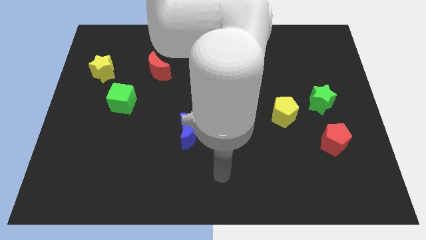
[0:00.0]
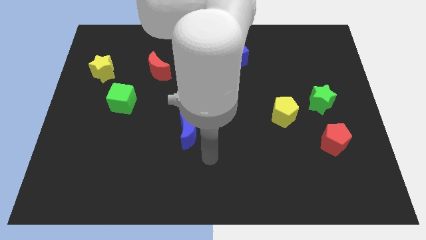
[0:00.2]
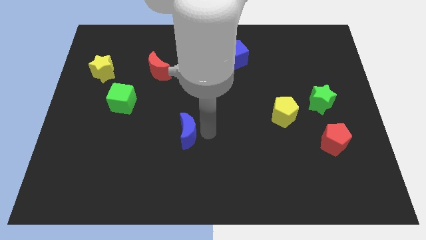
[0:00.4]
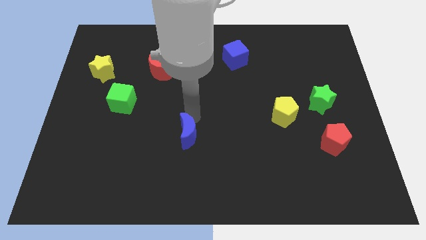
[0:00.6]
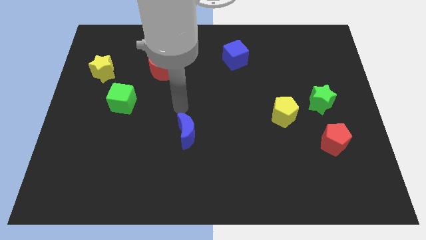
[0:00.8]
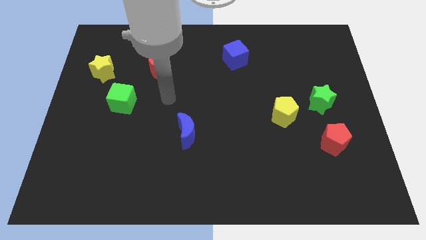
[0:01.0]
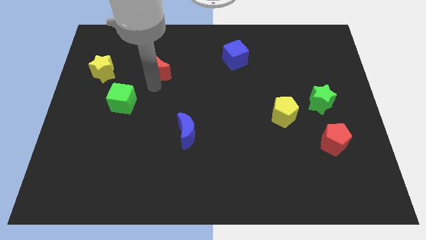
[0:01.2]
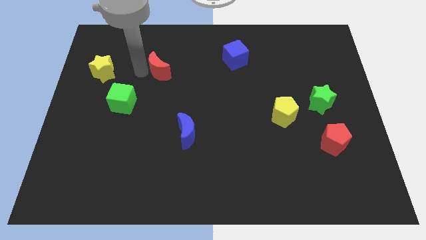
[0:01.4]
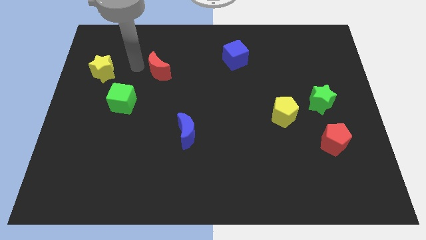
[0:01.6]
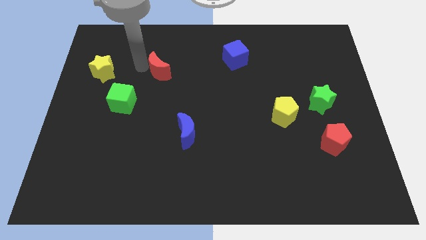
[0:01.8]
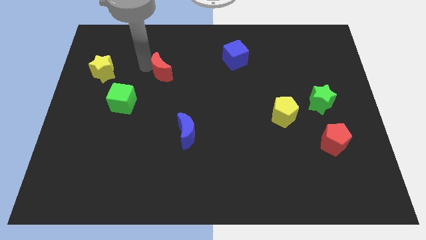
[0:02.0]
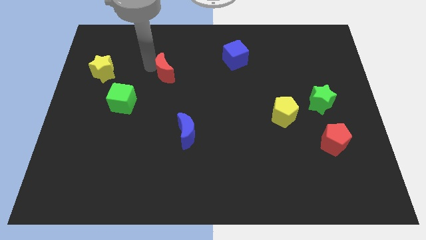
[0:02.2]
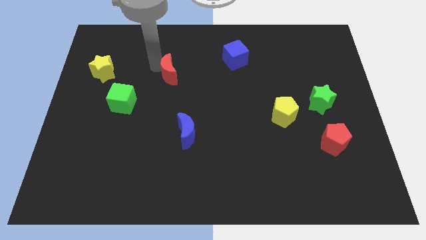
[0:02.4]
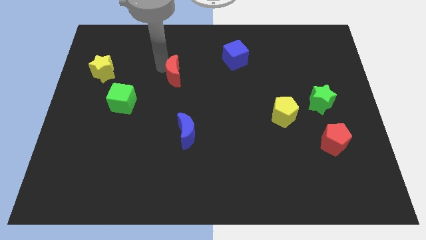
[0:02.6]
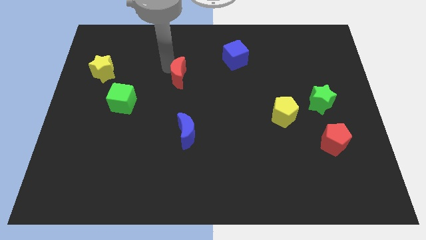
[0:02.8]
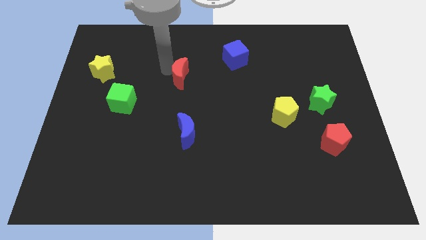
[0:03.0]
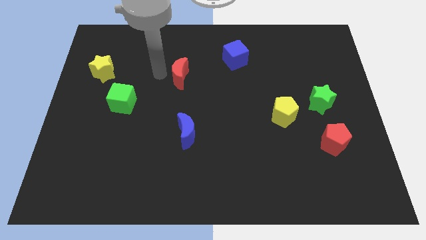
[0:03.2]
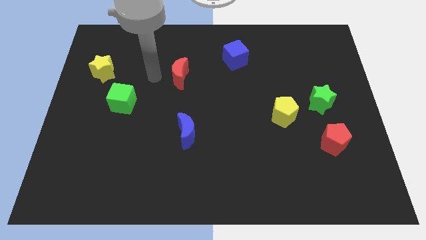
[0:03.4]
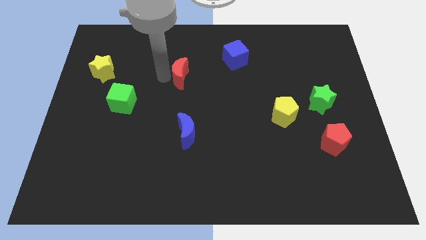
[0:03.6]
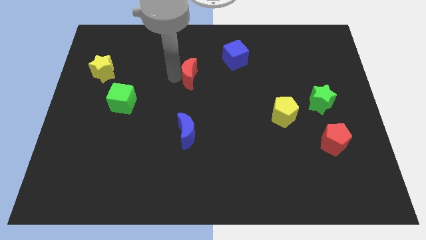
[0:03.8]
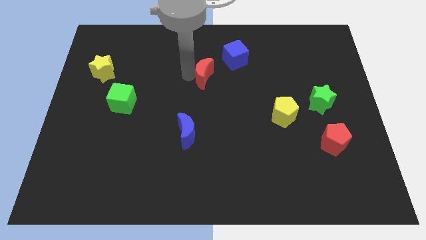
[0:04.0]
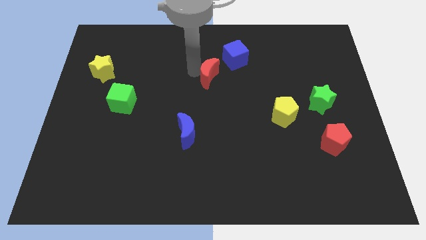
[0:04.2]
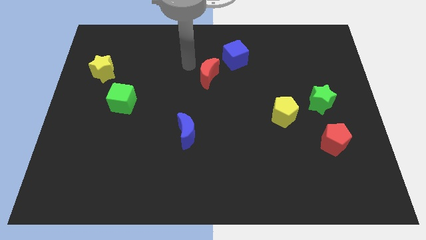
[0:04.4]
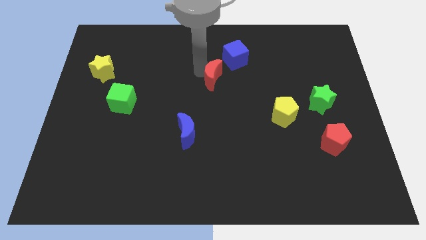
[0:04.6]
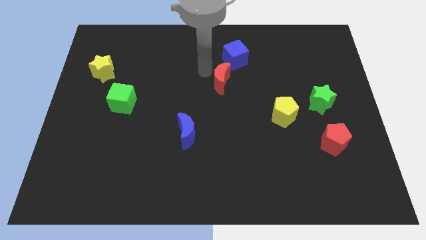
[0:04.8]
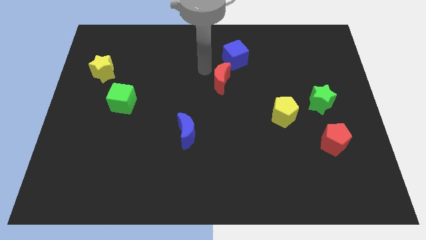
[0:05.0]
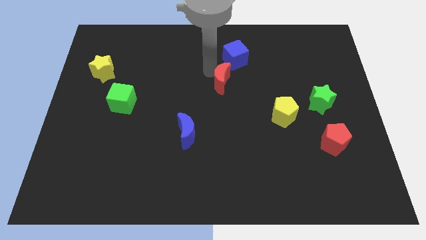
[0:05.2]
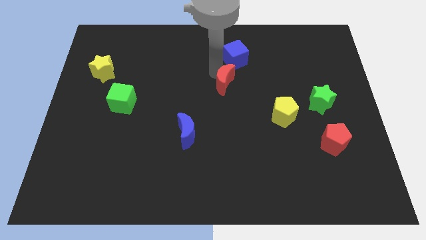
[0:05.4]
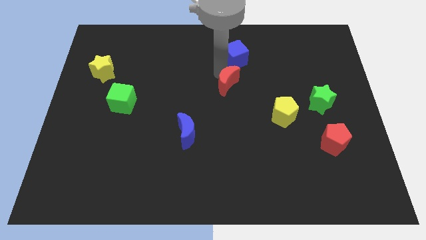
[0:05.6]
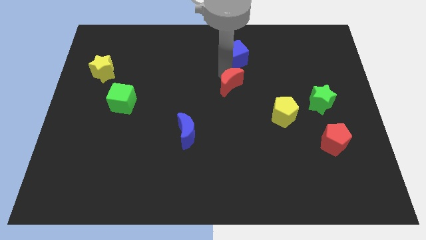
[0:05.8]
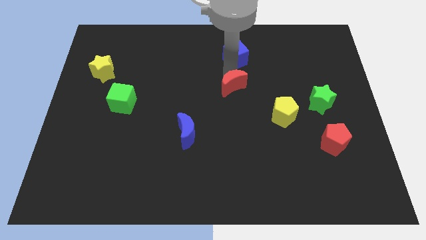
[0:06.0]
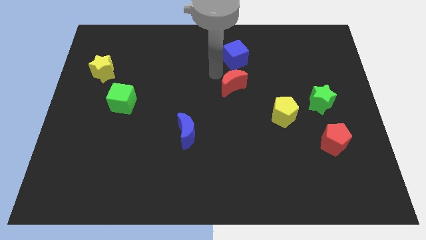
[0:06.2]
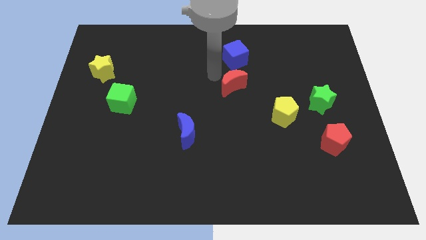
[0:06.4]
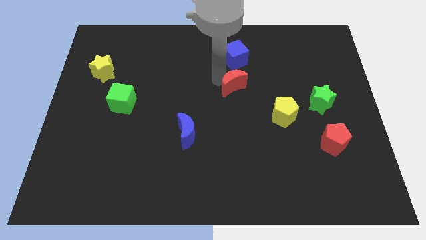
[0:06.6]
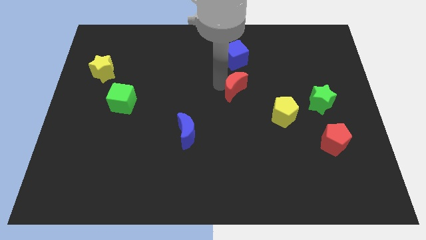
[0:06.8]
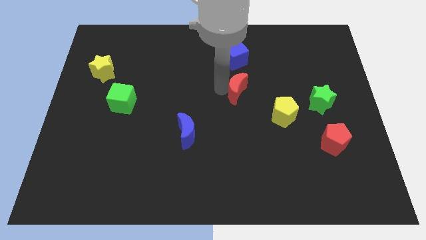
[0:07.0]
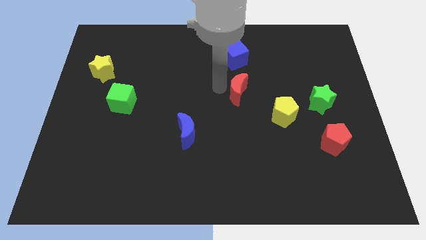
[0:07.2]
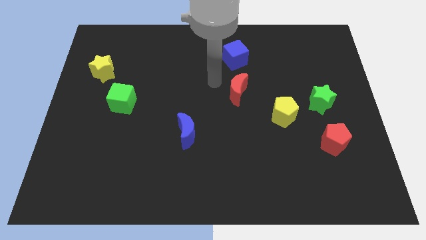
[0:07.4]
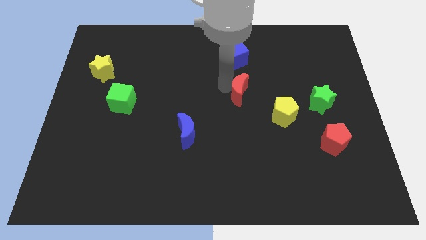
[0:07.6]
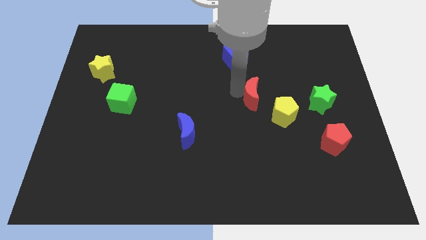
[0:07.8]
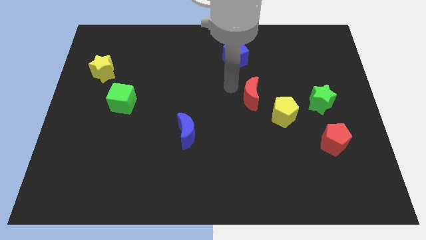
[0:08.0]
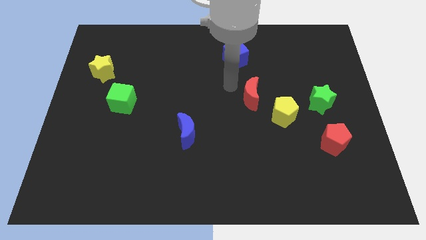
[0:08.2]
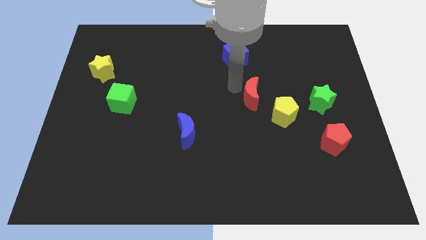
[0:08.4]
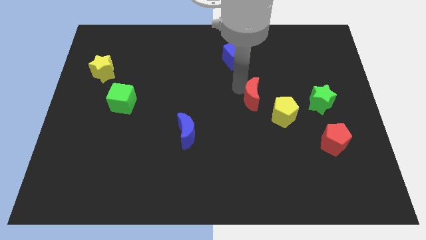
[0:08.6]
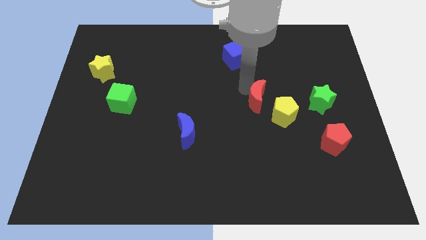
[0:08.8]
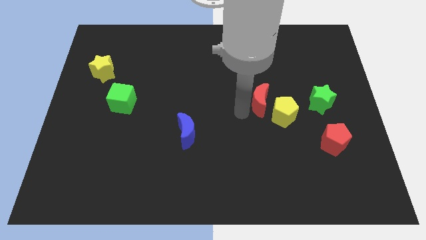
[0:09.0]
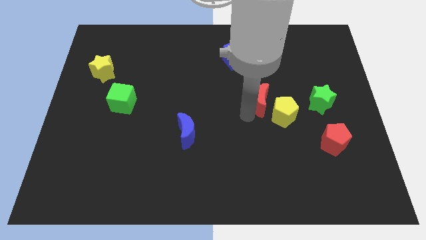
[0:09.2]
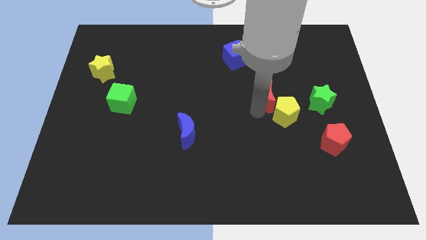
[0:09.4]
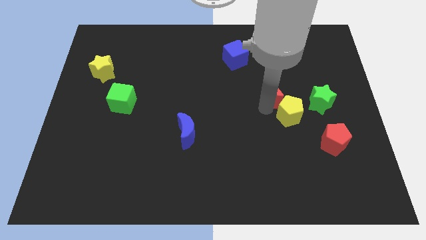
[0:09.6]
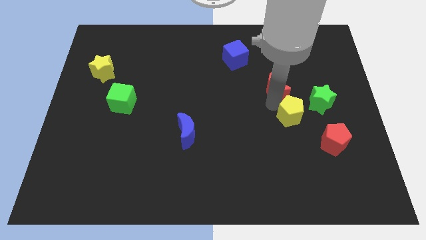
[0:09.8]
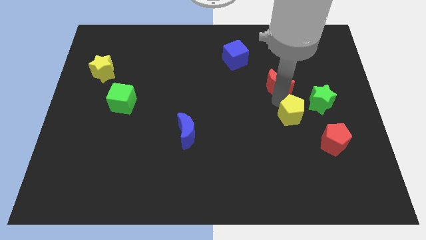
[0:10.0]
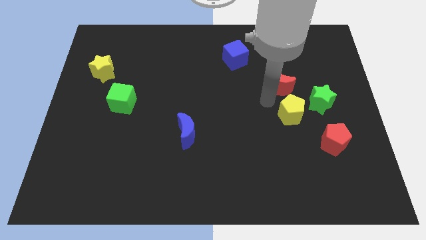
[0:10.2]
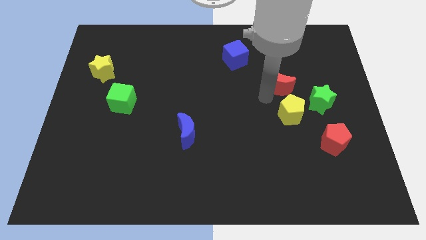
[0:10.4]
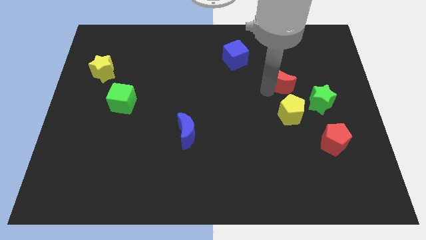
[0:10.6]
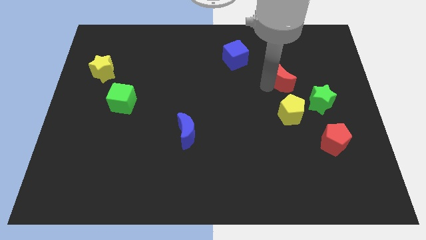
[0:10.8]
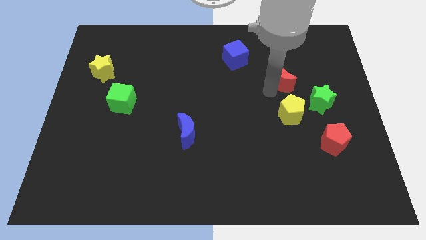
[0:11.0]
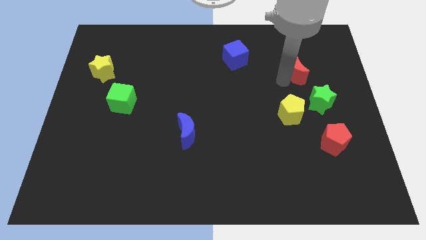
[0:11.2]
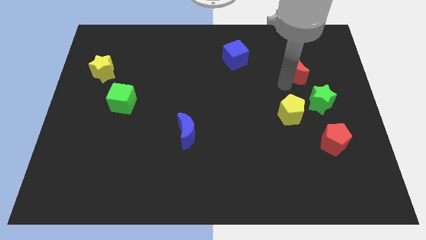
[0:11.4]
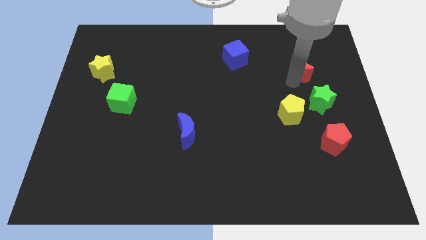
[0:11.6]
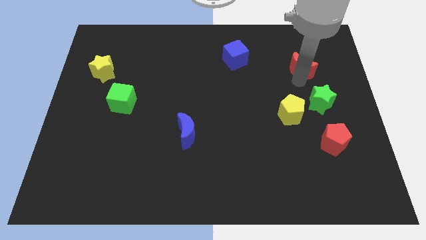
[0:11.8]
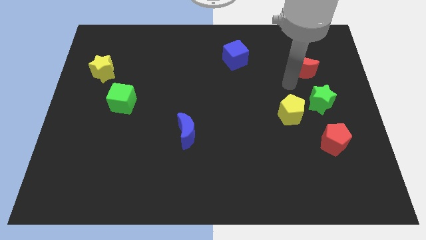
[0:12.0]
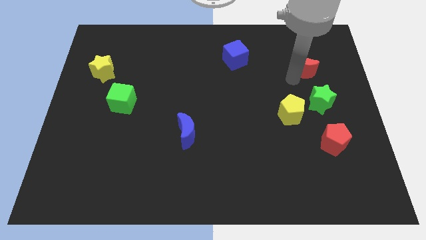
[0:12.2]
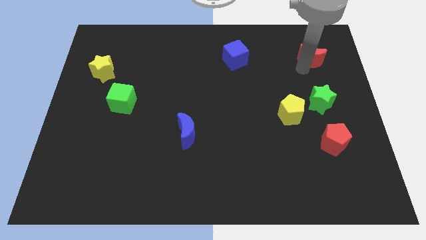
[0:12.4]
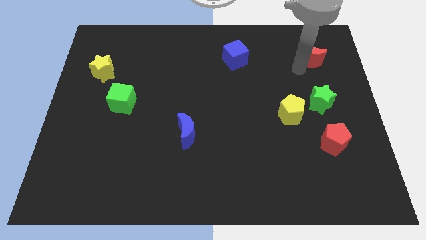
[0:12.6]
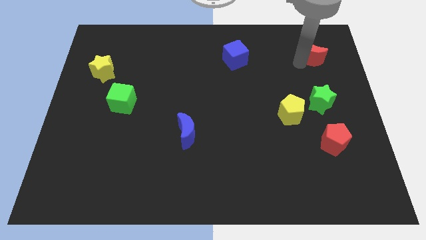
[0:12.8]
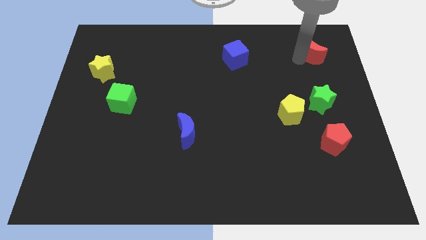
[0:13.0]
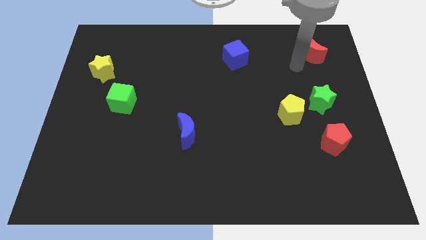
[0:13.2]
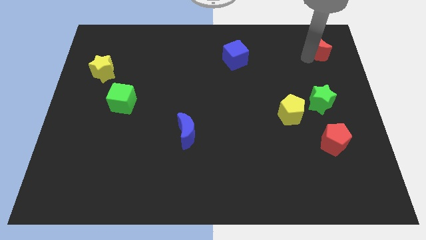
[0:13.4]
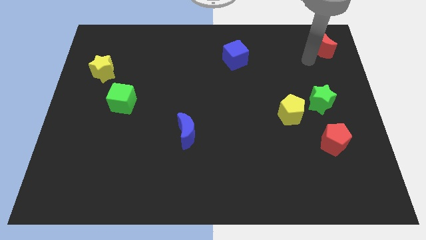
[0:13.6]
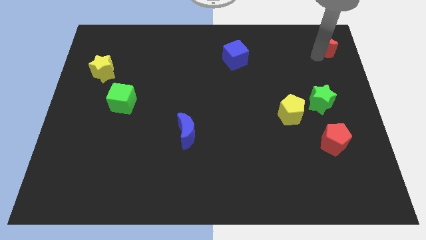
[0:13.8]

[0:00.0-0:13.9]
put the red moon to the top right corner

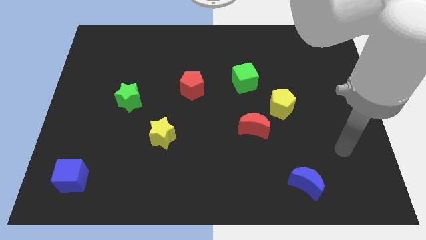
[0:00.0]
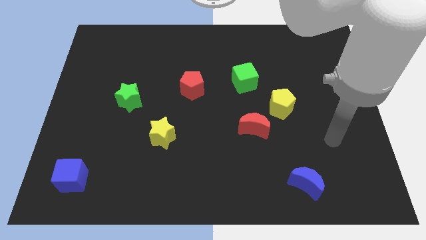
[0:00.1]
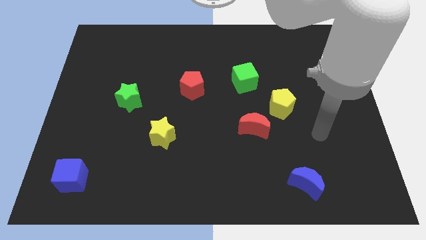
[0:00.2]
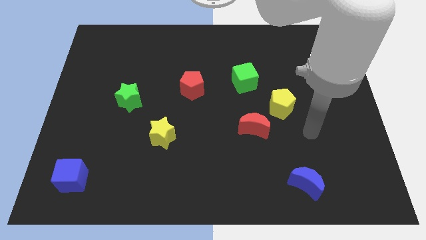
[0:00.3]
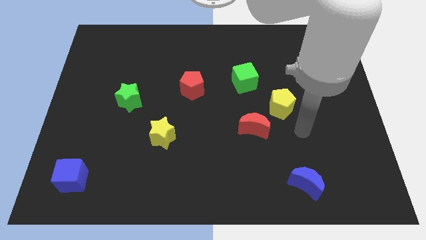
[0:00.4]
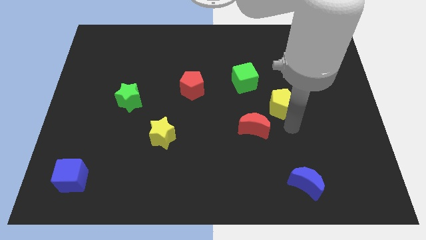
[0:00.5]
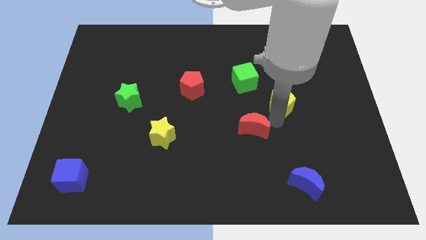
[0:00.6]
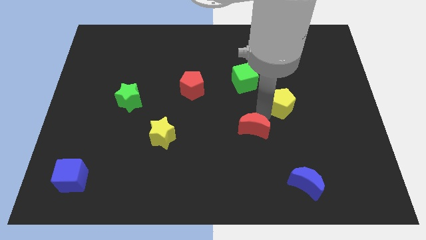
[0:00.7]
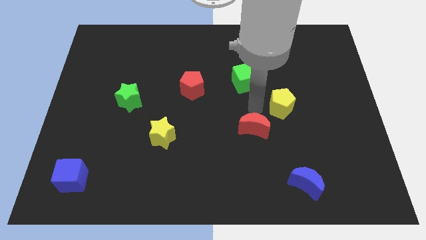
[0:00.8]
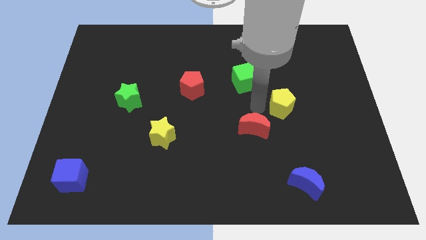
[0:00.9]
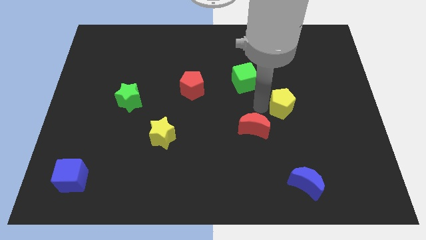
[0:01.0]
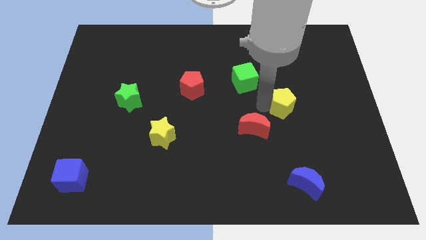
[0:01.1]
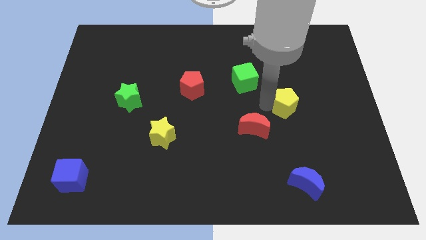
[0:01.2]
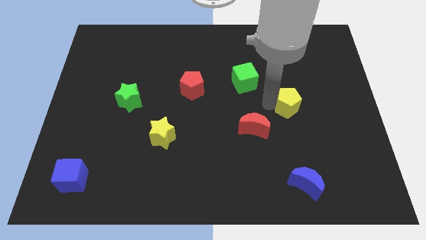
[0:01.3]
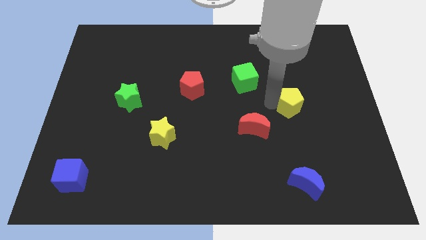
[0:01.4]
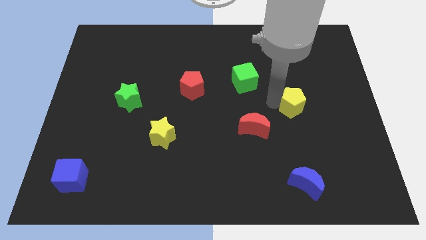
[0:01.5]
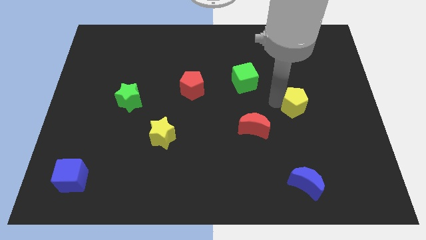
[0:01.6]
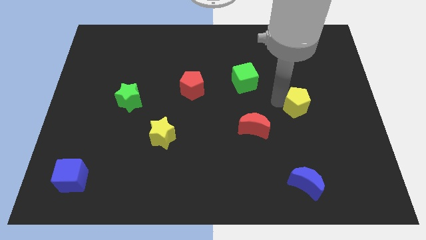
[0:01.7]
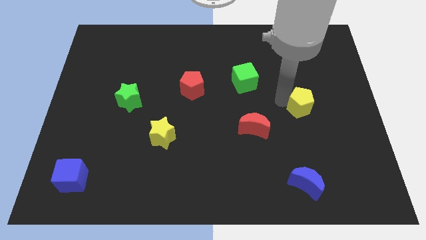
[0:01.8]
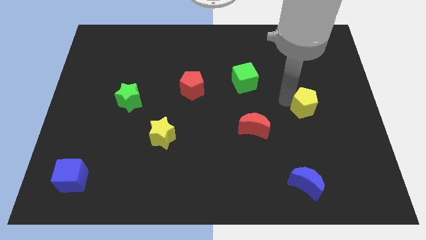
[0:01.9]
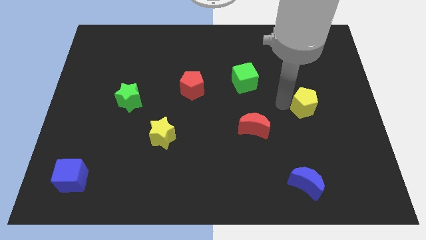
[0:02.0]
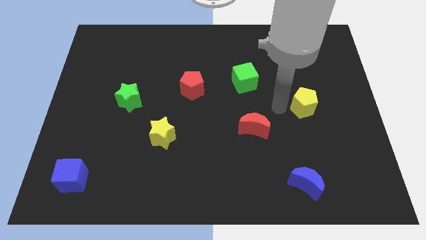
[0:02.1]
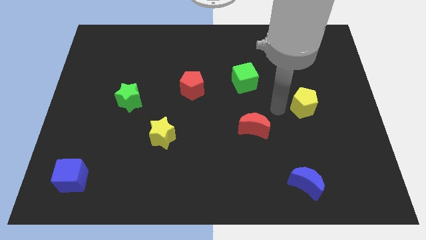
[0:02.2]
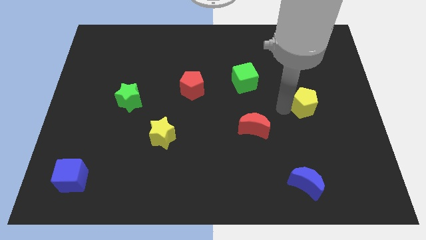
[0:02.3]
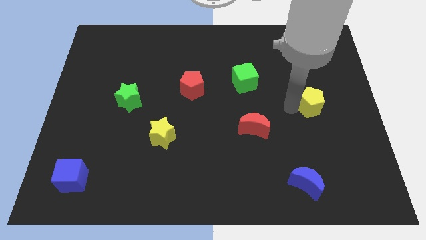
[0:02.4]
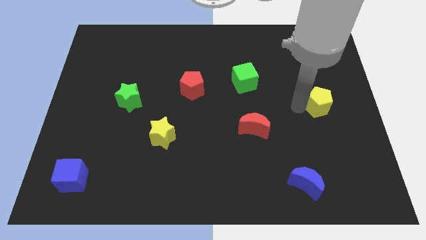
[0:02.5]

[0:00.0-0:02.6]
put the yellow pentagon to the right side of the board
